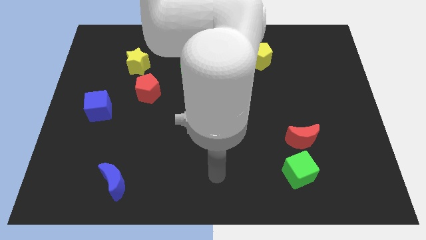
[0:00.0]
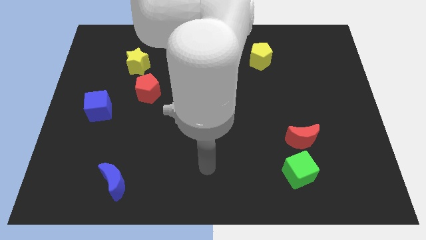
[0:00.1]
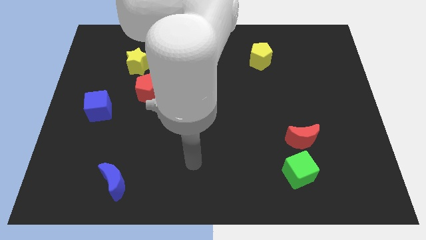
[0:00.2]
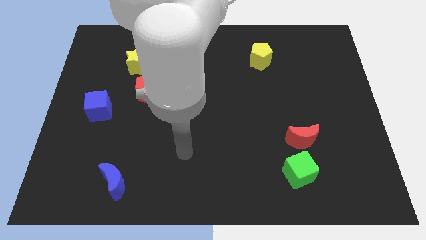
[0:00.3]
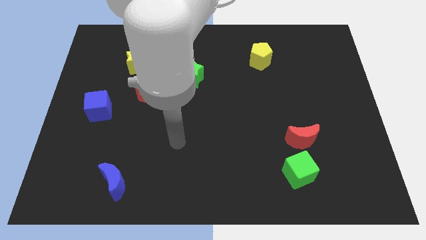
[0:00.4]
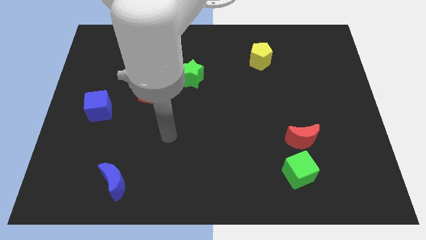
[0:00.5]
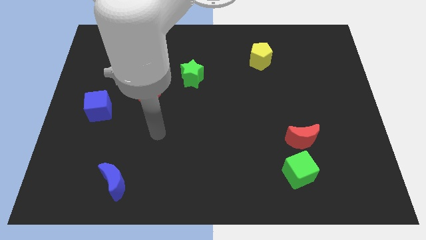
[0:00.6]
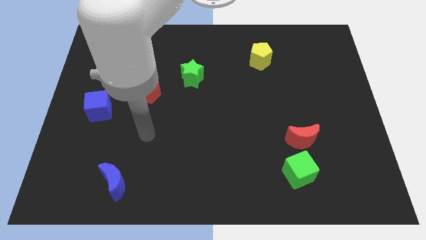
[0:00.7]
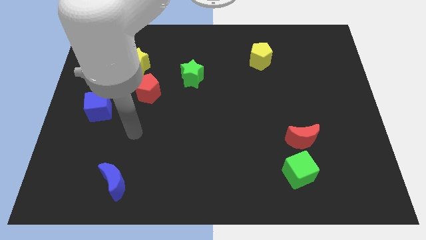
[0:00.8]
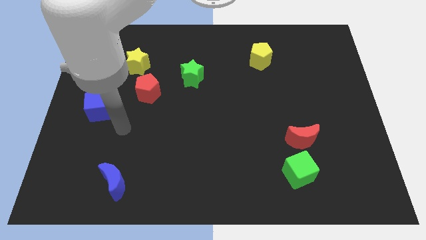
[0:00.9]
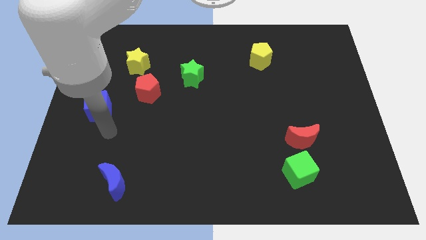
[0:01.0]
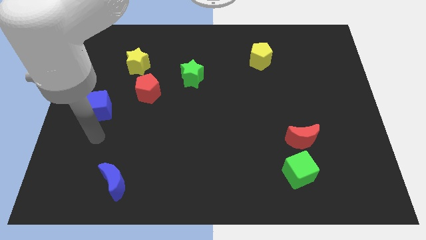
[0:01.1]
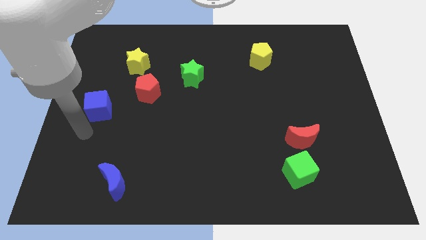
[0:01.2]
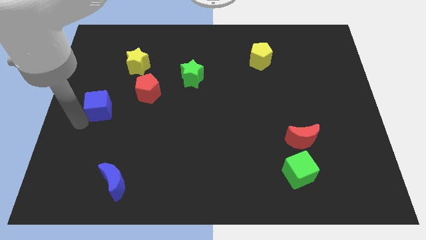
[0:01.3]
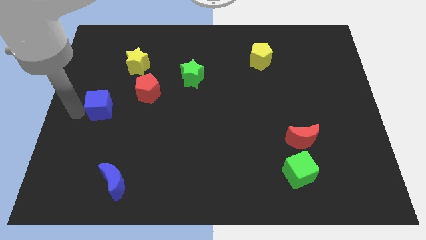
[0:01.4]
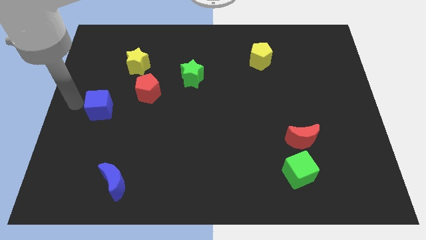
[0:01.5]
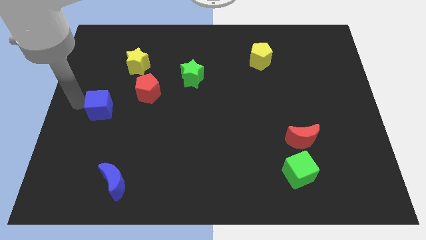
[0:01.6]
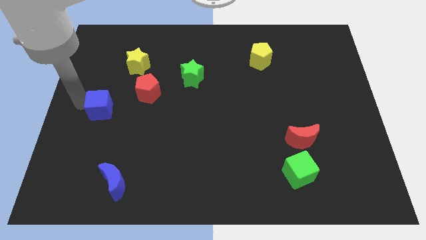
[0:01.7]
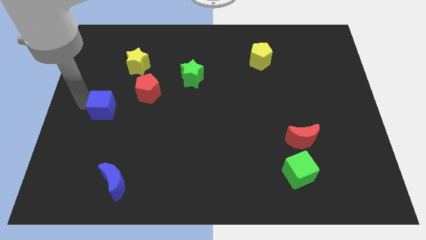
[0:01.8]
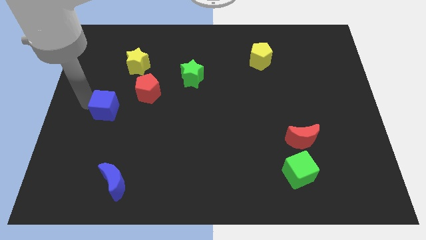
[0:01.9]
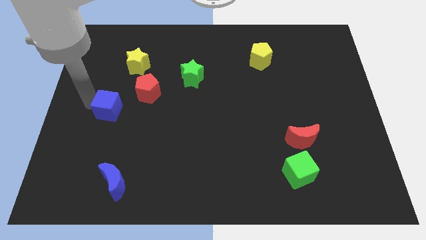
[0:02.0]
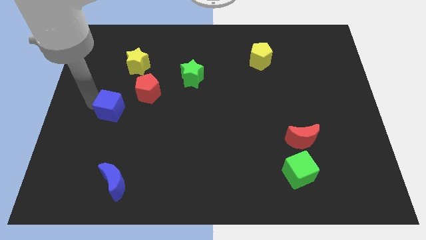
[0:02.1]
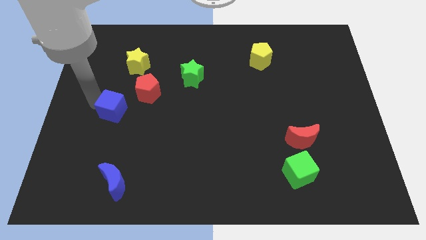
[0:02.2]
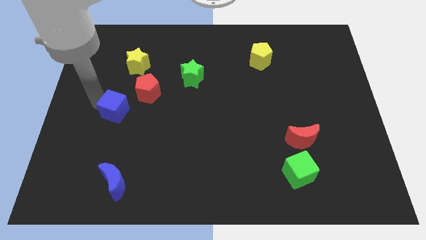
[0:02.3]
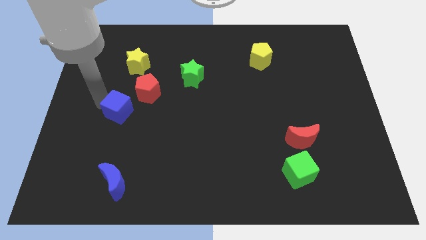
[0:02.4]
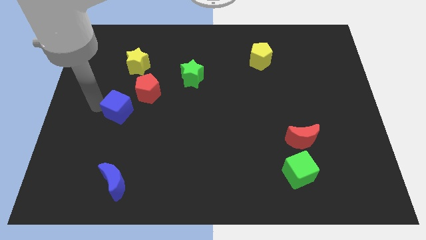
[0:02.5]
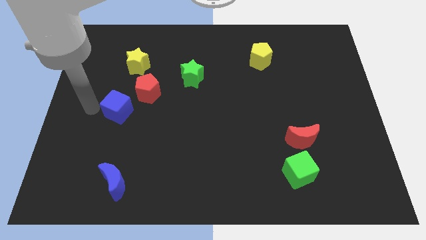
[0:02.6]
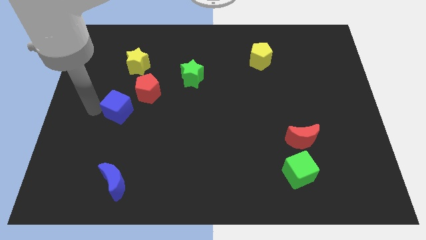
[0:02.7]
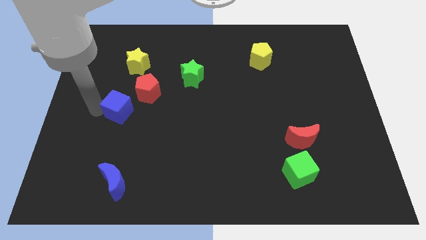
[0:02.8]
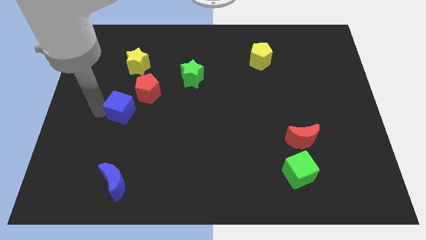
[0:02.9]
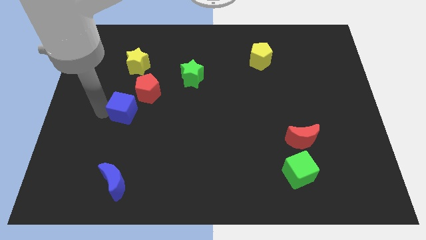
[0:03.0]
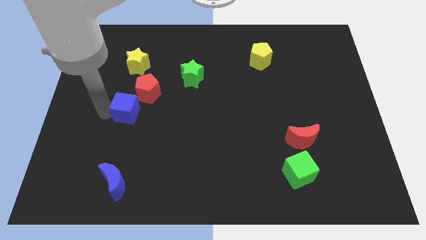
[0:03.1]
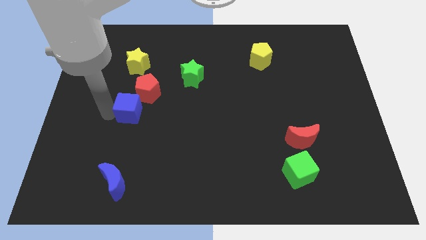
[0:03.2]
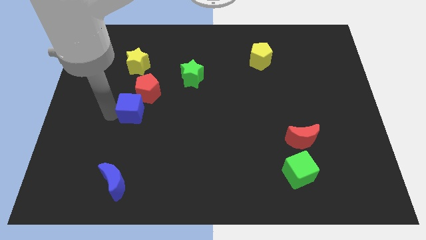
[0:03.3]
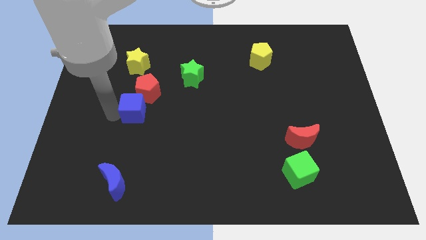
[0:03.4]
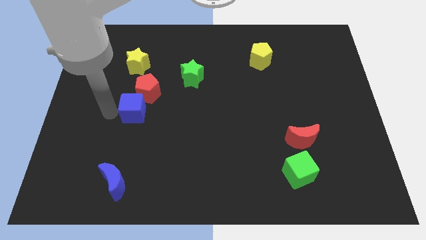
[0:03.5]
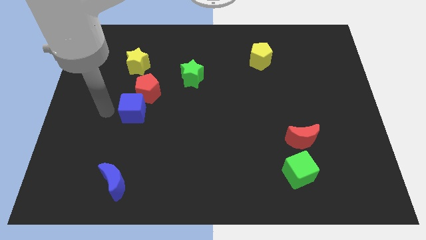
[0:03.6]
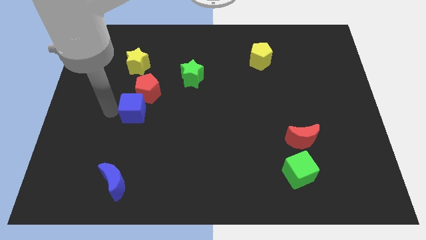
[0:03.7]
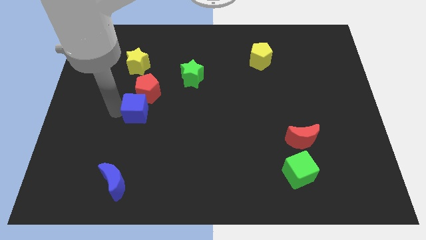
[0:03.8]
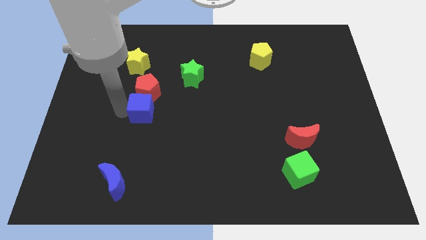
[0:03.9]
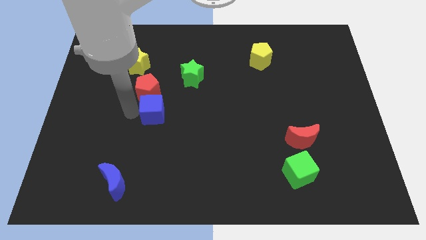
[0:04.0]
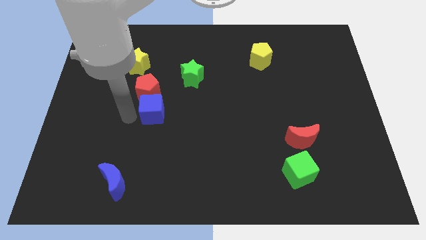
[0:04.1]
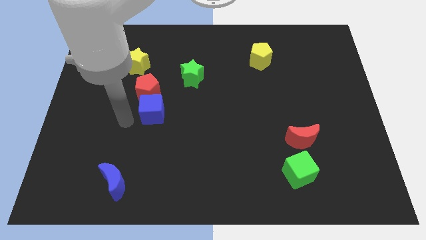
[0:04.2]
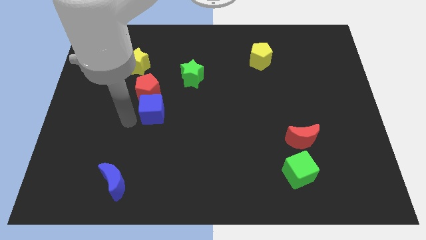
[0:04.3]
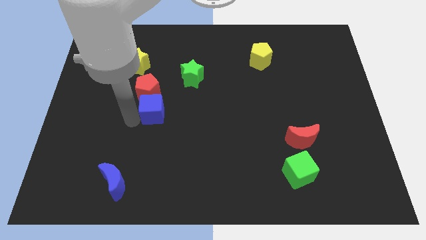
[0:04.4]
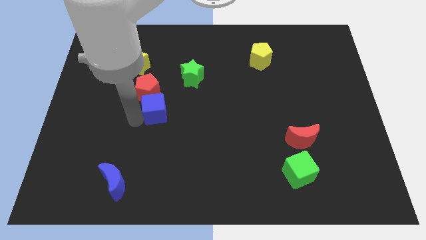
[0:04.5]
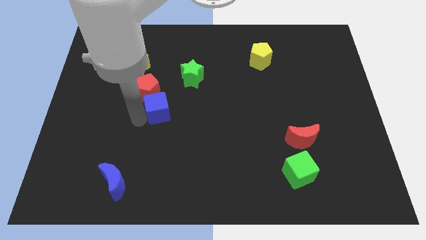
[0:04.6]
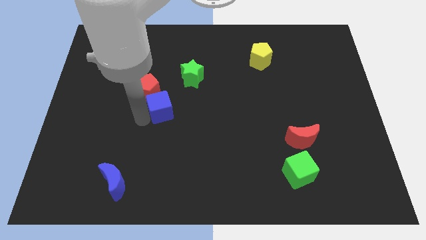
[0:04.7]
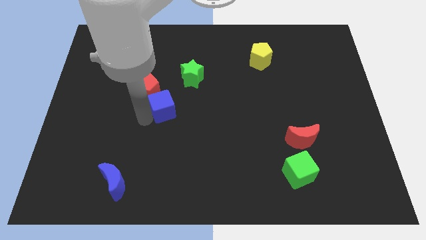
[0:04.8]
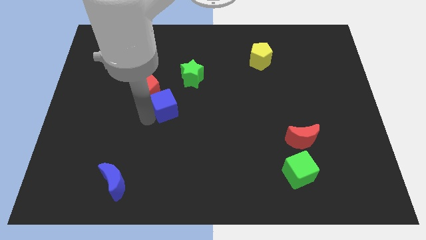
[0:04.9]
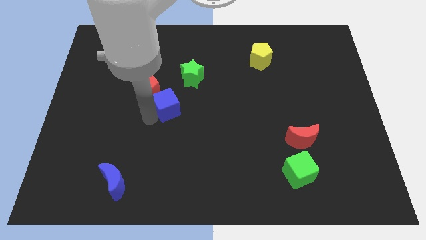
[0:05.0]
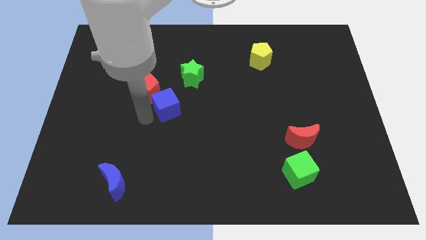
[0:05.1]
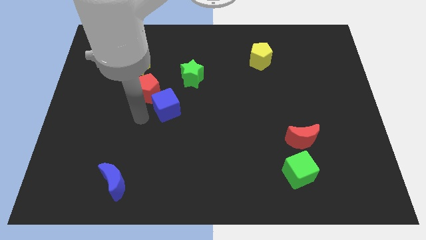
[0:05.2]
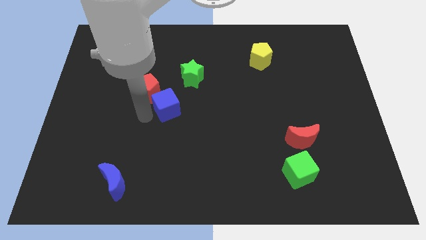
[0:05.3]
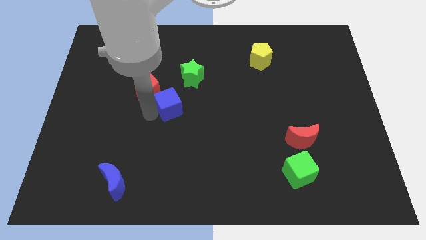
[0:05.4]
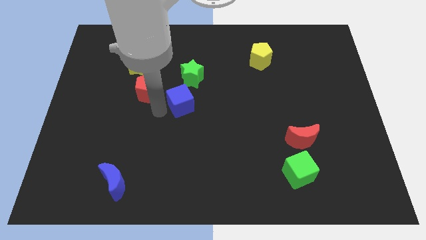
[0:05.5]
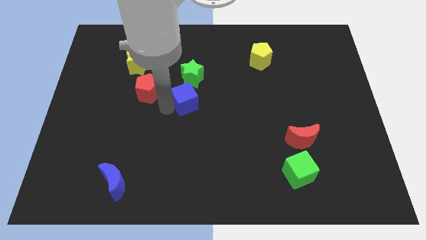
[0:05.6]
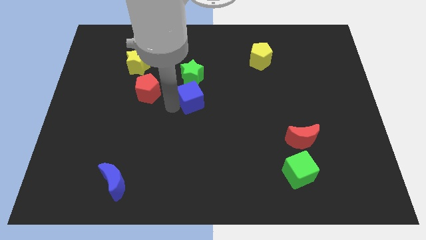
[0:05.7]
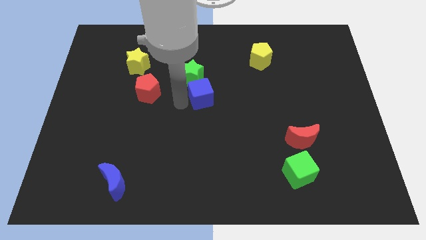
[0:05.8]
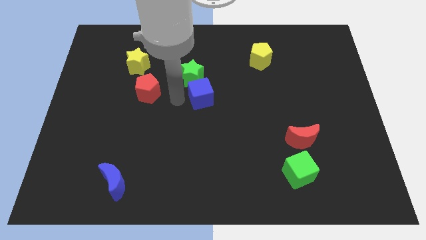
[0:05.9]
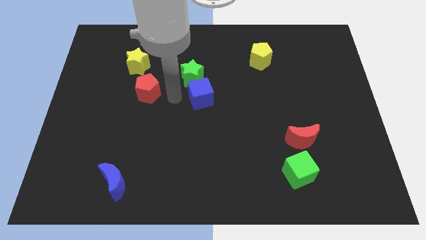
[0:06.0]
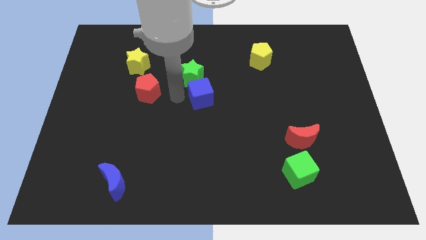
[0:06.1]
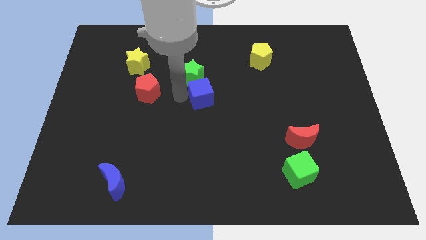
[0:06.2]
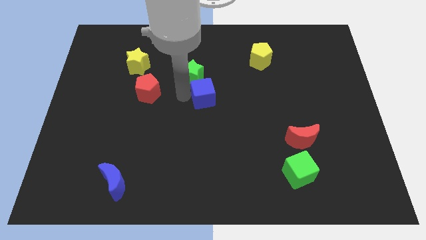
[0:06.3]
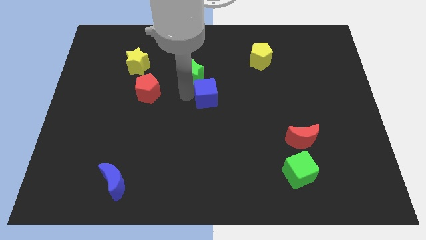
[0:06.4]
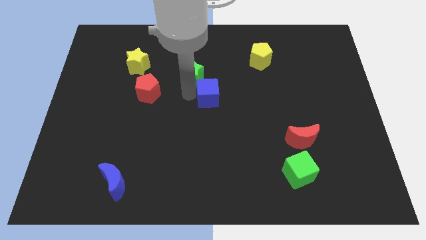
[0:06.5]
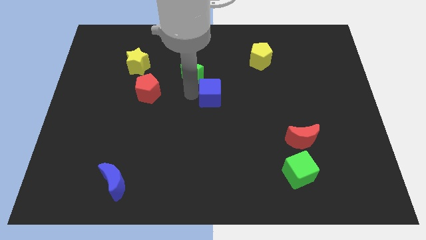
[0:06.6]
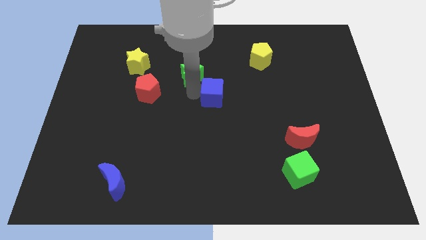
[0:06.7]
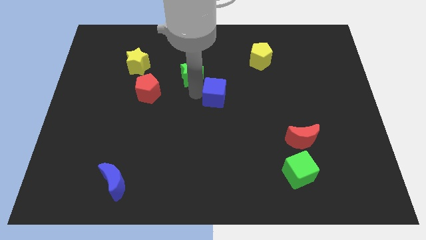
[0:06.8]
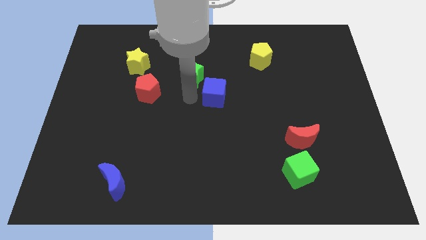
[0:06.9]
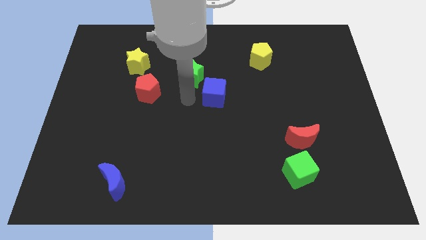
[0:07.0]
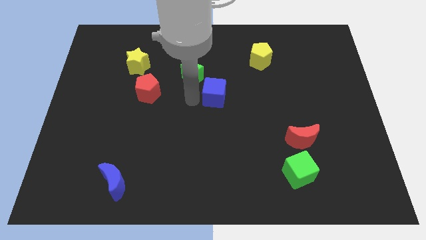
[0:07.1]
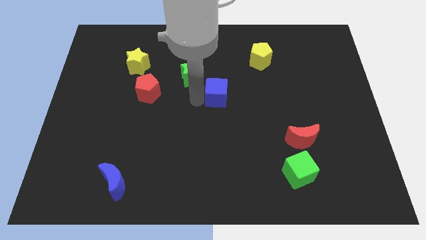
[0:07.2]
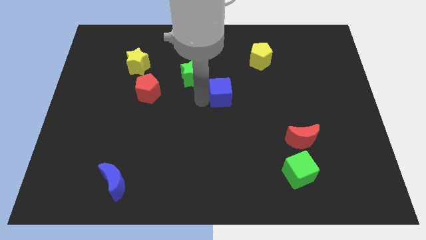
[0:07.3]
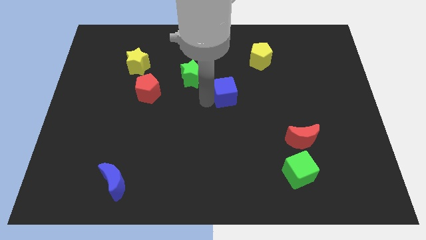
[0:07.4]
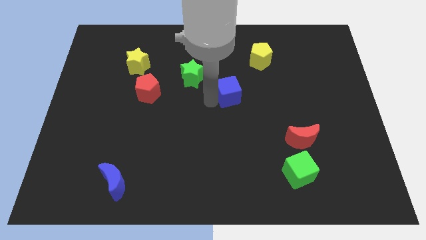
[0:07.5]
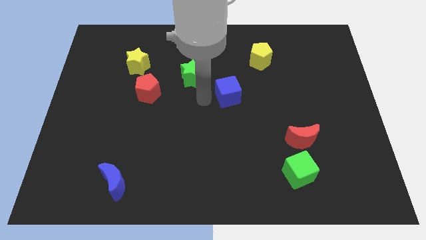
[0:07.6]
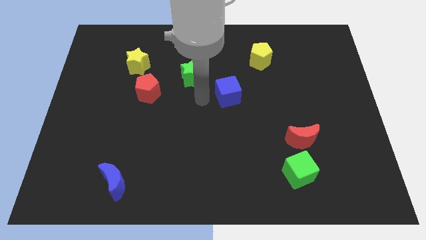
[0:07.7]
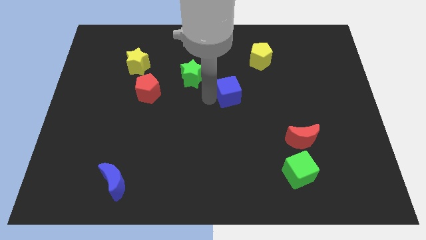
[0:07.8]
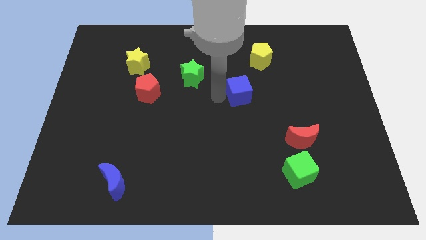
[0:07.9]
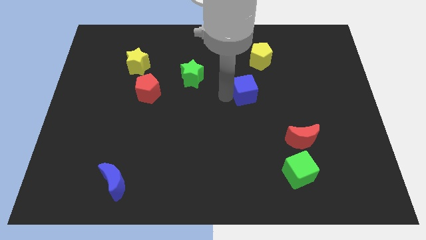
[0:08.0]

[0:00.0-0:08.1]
push the blue cube to the bottom side of the yellow pentagon
